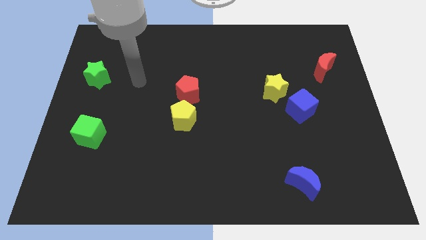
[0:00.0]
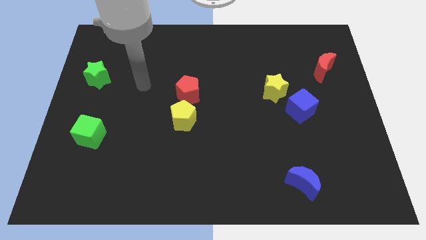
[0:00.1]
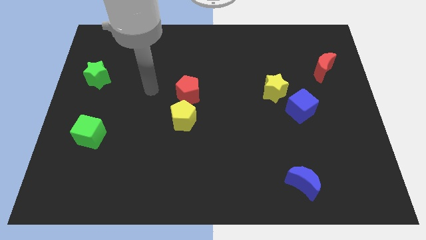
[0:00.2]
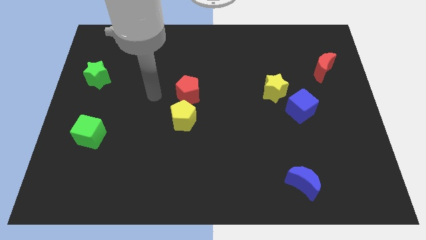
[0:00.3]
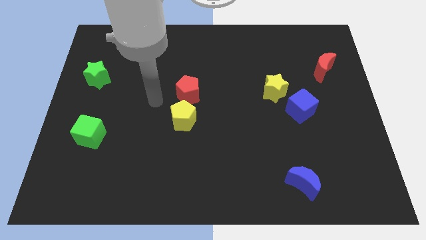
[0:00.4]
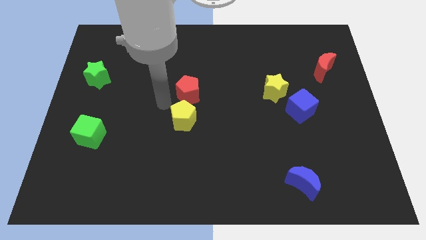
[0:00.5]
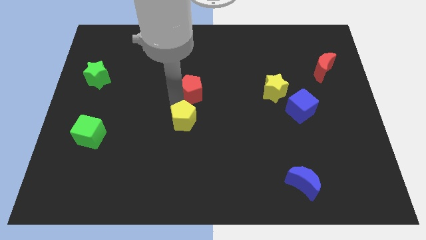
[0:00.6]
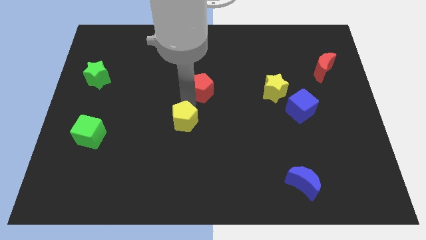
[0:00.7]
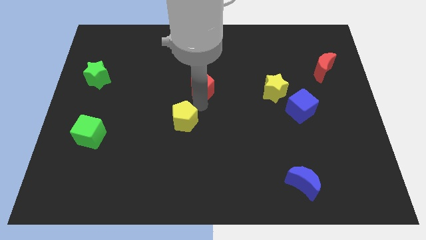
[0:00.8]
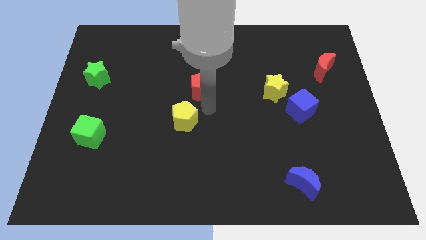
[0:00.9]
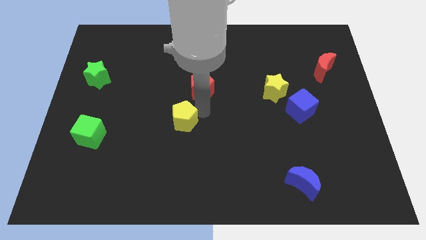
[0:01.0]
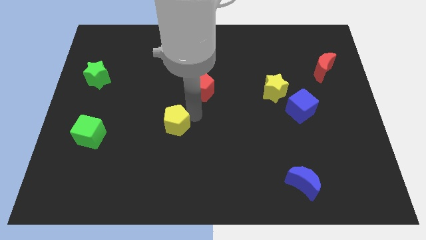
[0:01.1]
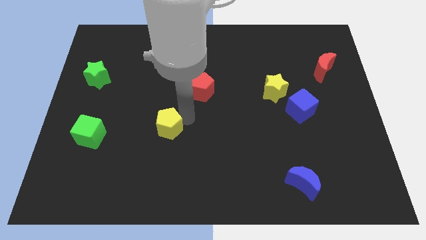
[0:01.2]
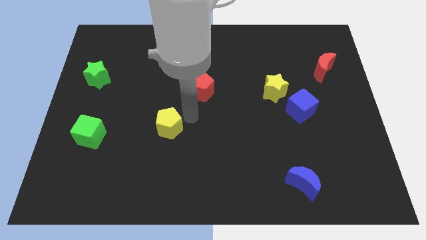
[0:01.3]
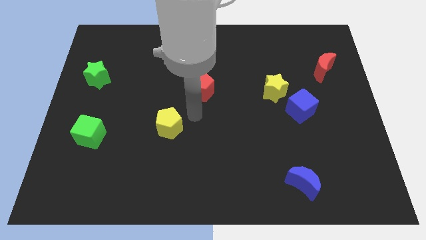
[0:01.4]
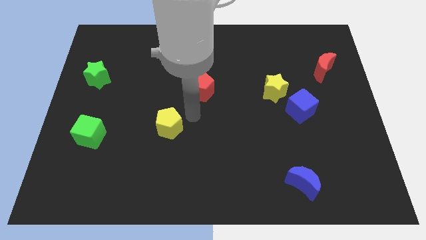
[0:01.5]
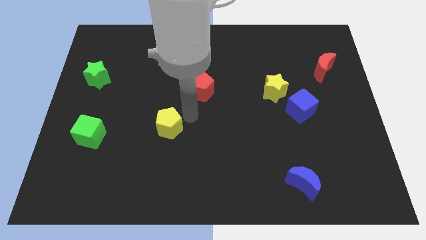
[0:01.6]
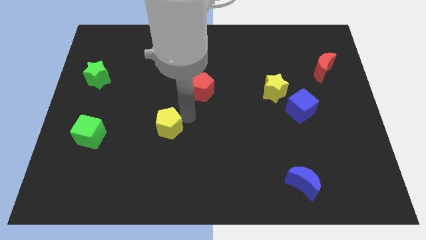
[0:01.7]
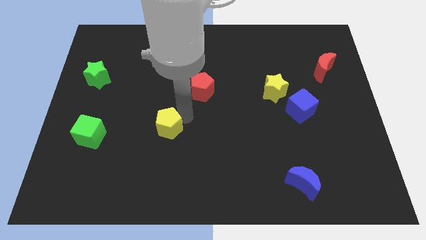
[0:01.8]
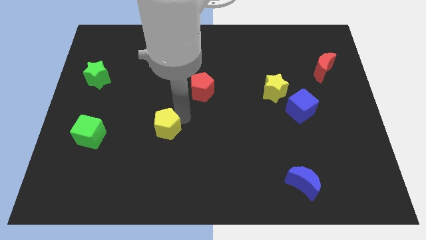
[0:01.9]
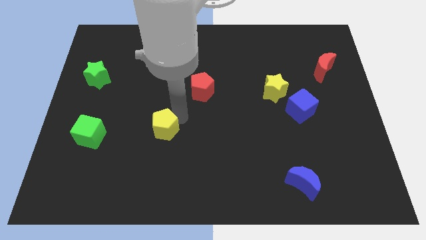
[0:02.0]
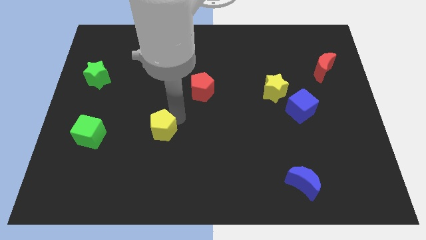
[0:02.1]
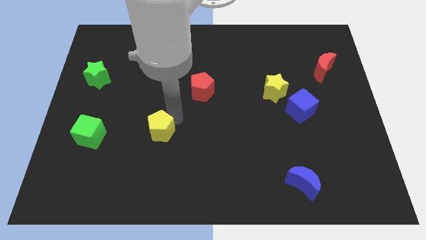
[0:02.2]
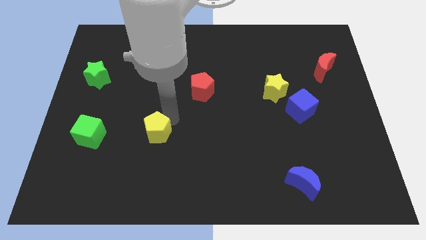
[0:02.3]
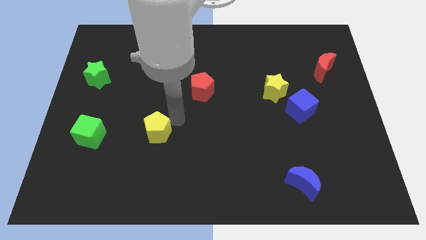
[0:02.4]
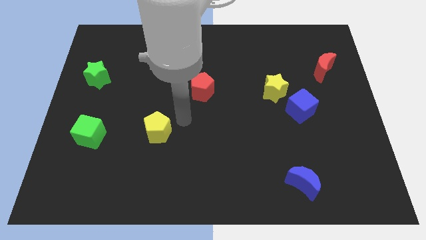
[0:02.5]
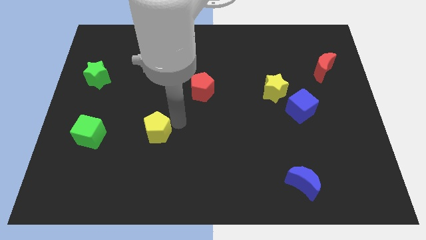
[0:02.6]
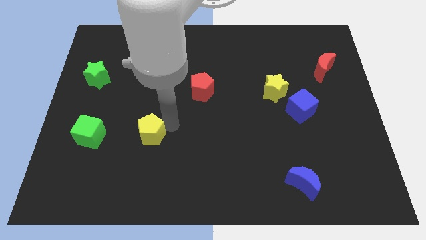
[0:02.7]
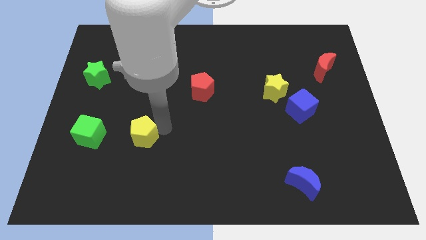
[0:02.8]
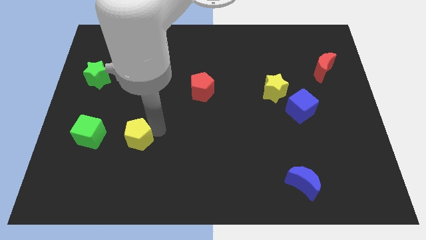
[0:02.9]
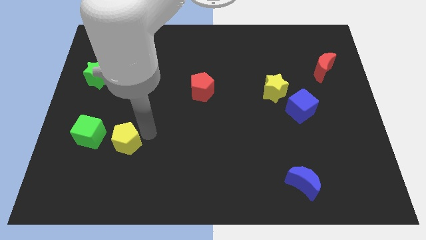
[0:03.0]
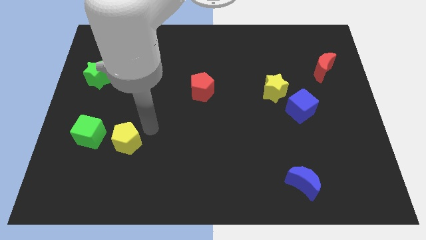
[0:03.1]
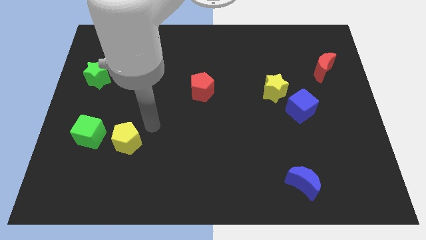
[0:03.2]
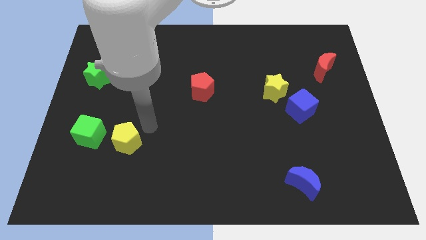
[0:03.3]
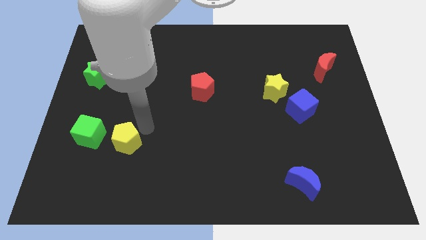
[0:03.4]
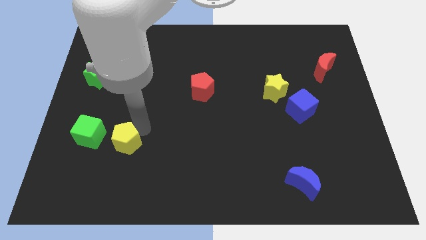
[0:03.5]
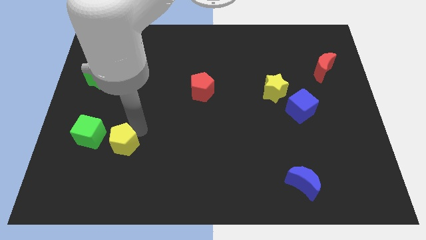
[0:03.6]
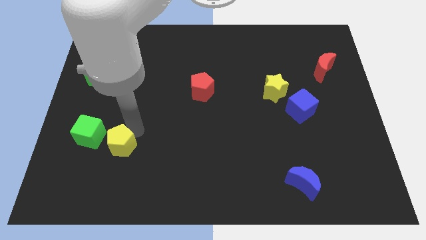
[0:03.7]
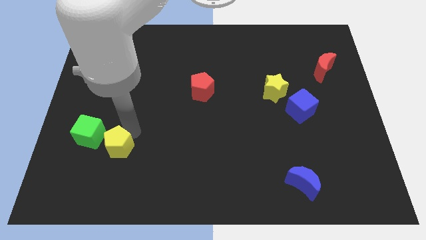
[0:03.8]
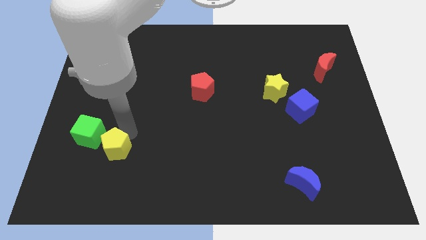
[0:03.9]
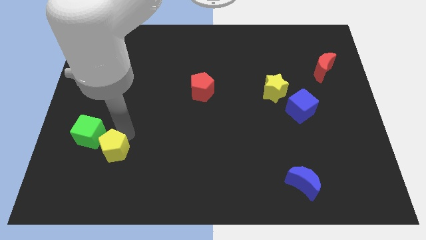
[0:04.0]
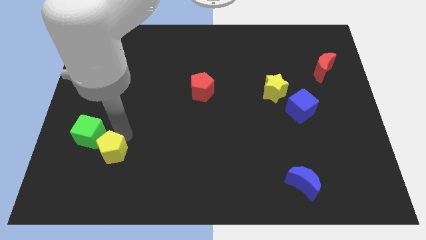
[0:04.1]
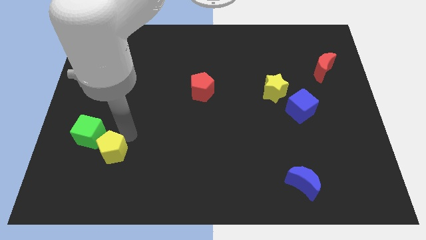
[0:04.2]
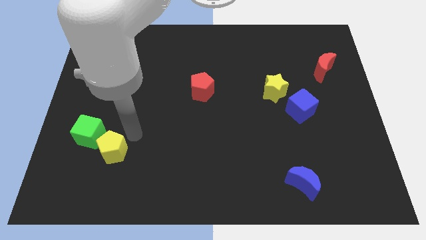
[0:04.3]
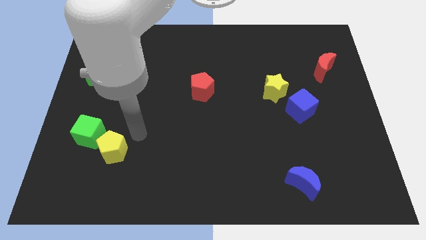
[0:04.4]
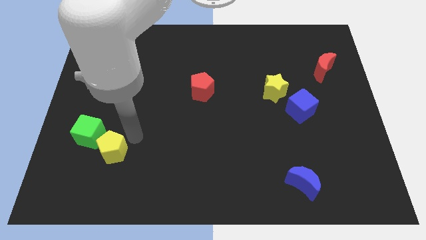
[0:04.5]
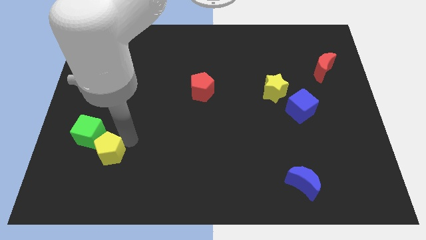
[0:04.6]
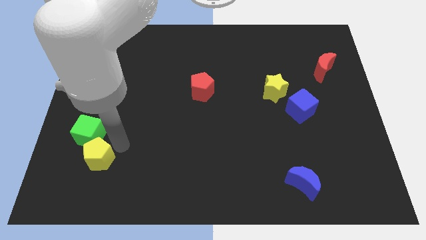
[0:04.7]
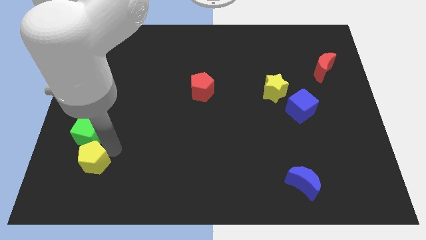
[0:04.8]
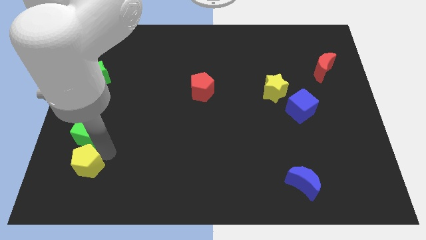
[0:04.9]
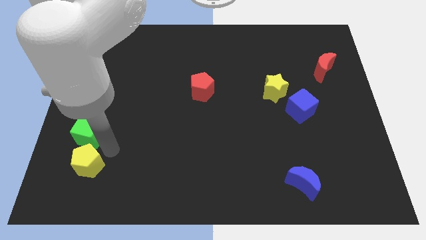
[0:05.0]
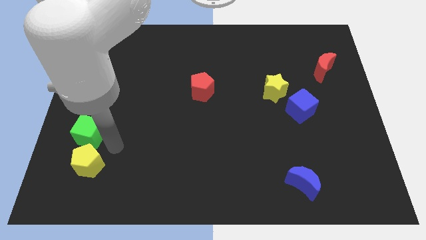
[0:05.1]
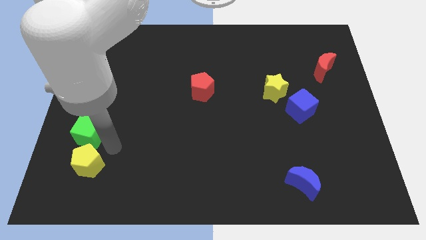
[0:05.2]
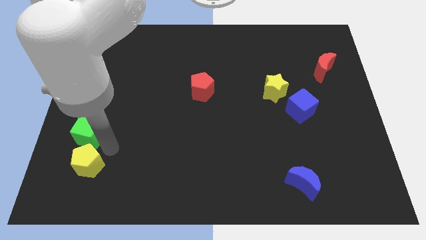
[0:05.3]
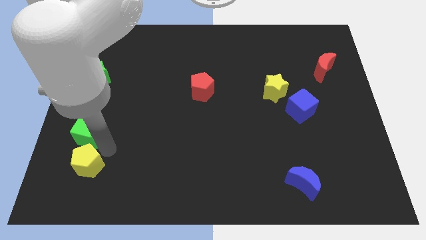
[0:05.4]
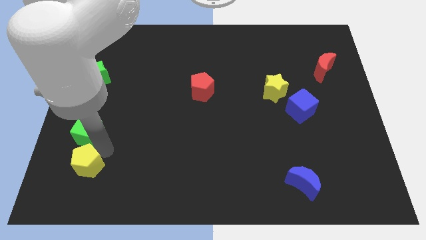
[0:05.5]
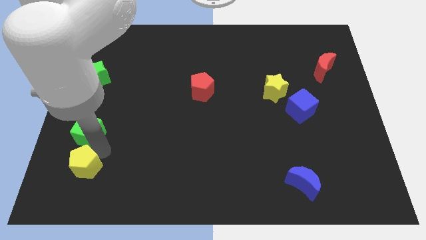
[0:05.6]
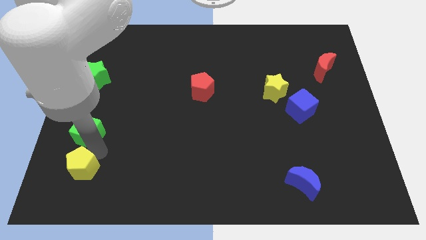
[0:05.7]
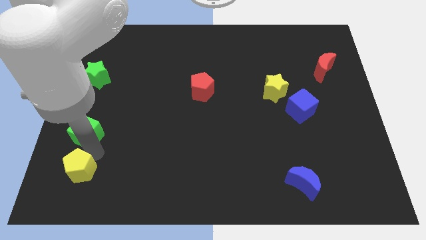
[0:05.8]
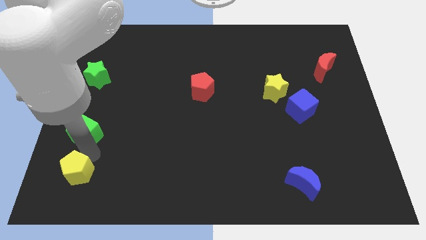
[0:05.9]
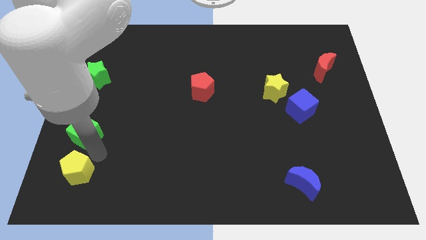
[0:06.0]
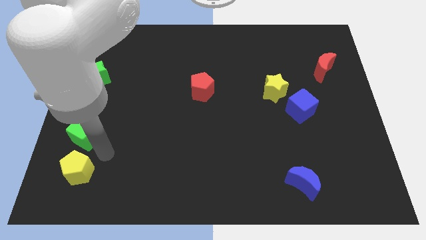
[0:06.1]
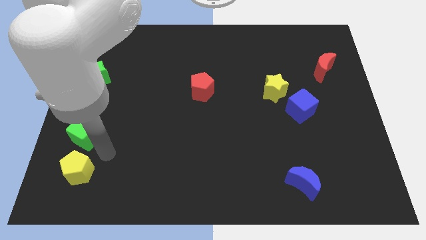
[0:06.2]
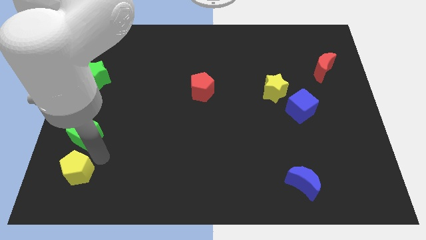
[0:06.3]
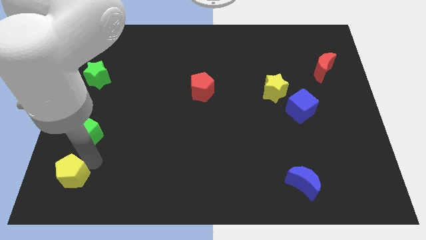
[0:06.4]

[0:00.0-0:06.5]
move the yellow pentagon to the bottom left of the board
